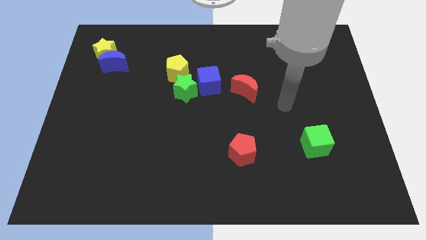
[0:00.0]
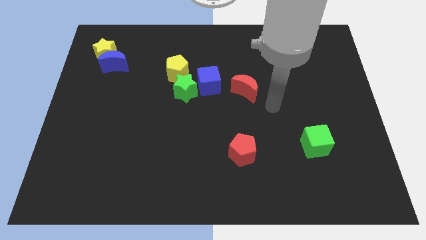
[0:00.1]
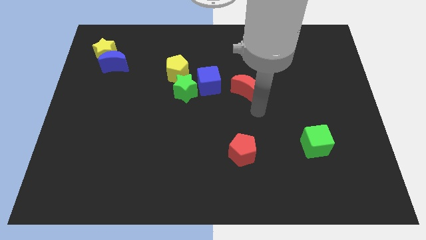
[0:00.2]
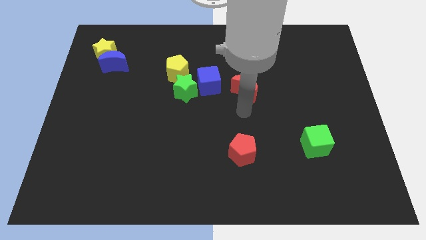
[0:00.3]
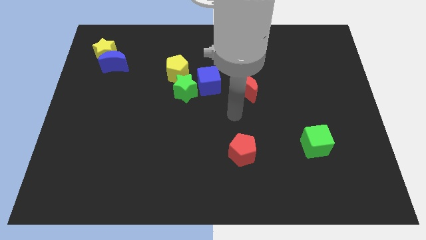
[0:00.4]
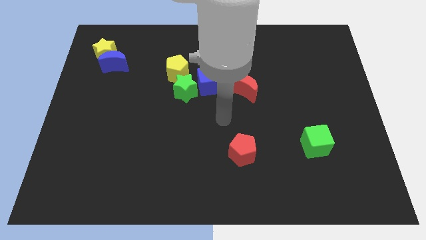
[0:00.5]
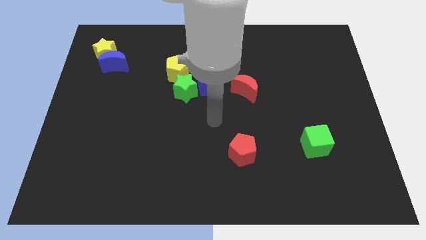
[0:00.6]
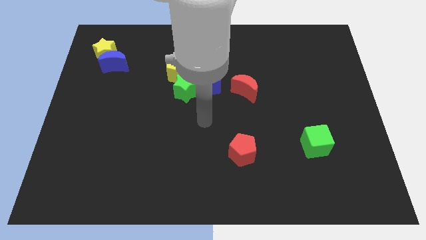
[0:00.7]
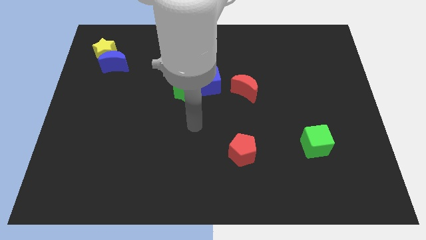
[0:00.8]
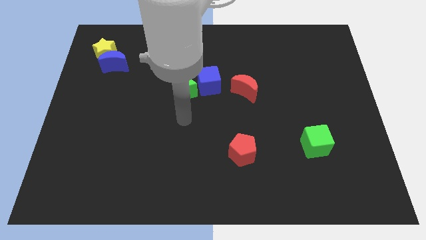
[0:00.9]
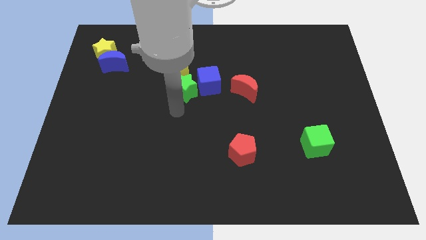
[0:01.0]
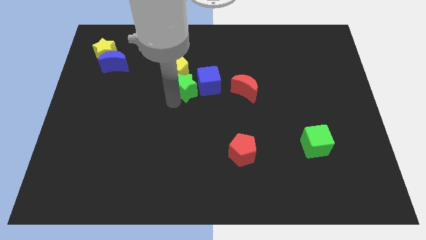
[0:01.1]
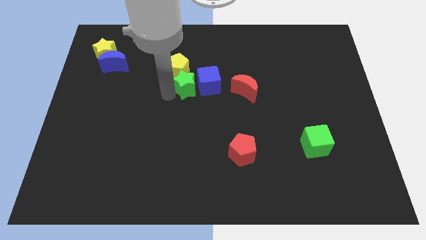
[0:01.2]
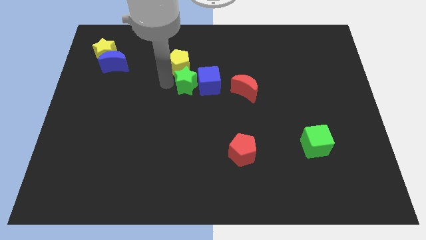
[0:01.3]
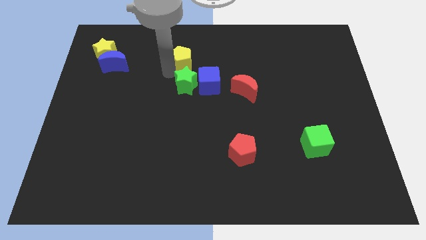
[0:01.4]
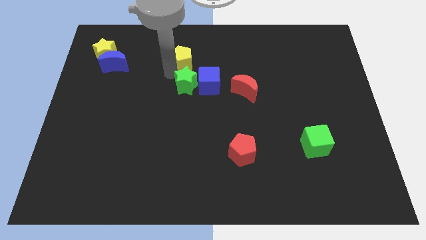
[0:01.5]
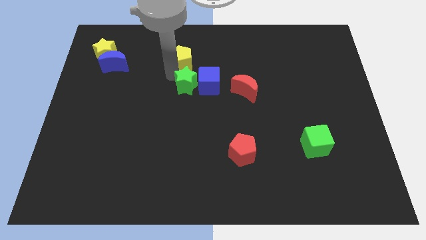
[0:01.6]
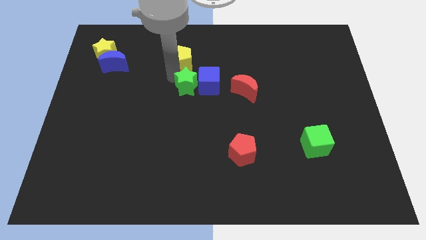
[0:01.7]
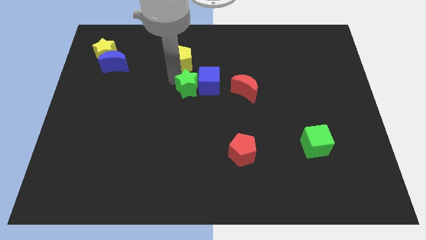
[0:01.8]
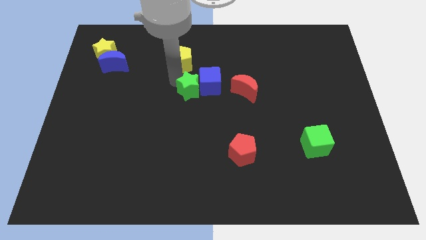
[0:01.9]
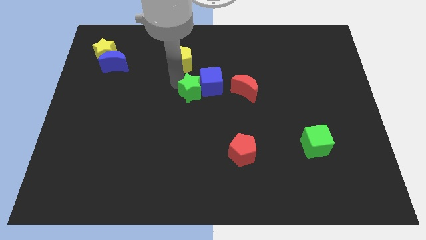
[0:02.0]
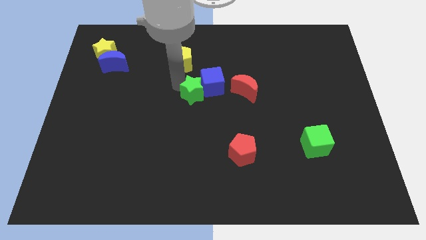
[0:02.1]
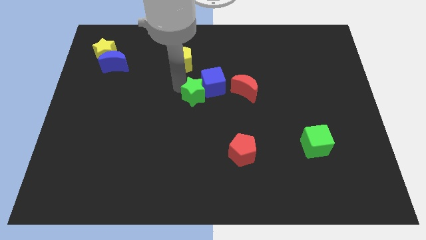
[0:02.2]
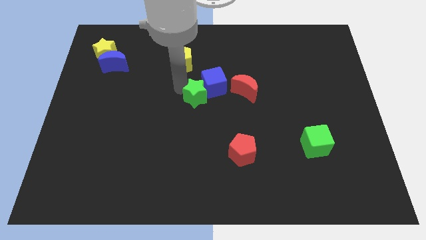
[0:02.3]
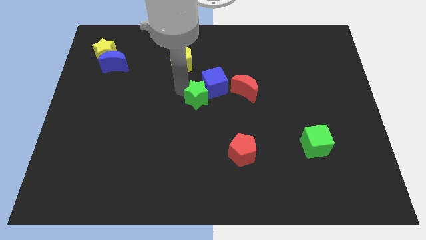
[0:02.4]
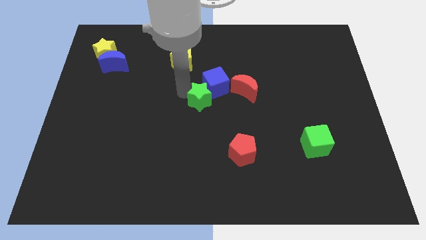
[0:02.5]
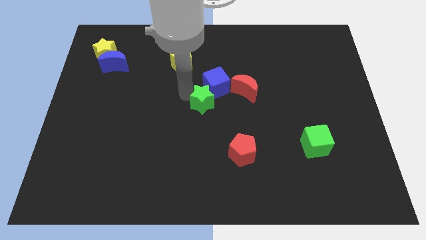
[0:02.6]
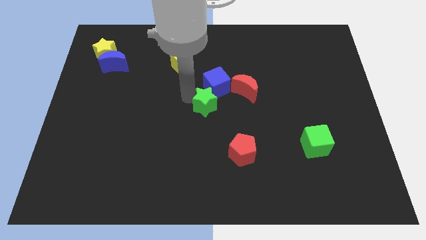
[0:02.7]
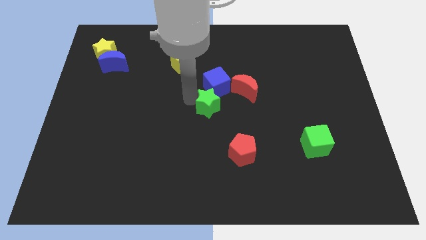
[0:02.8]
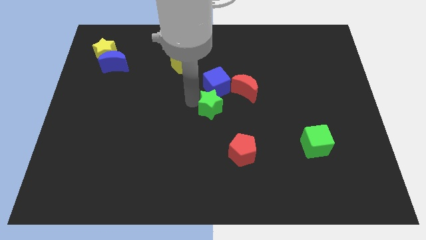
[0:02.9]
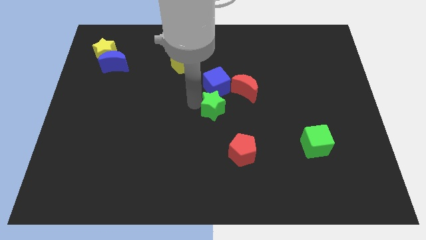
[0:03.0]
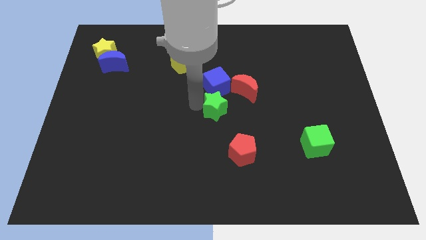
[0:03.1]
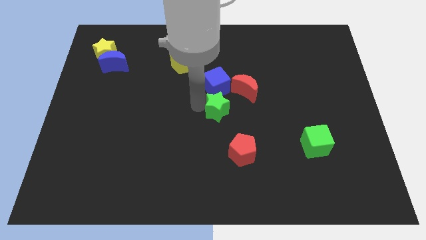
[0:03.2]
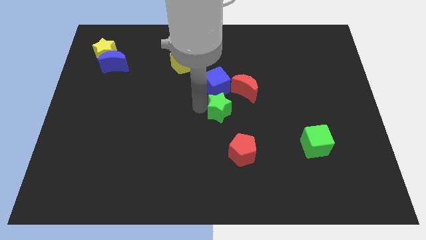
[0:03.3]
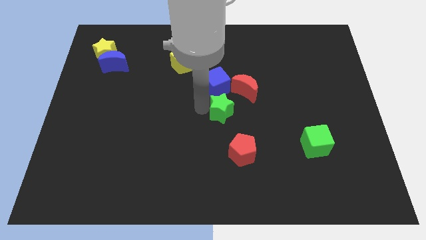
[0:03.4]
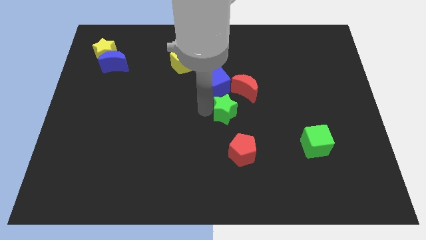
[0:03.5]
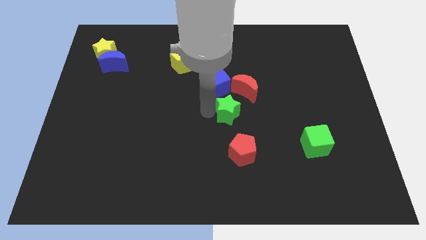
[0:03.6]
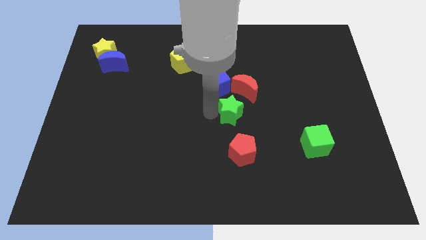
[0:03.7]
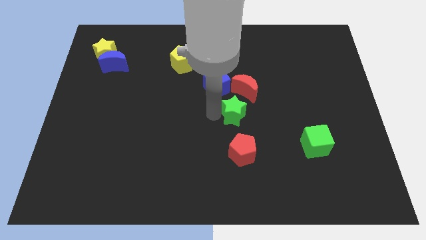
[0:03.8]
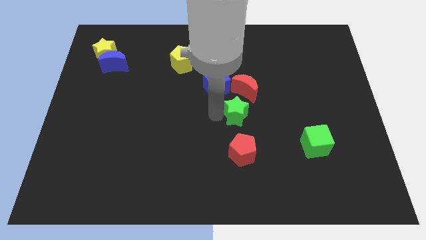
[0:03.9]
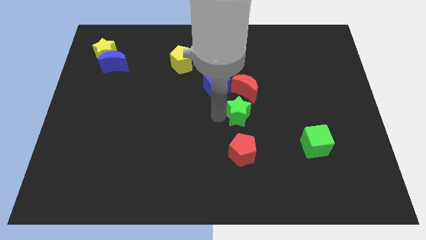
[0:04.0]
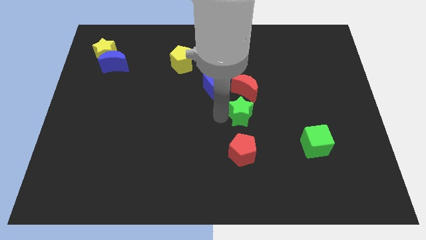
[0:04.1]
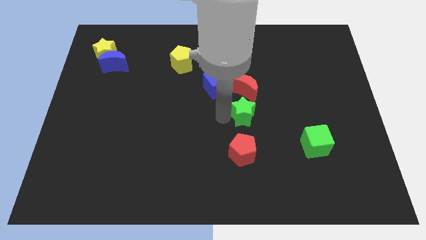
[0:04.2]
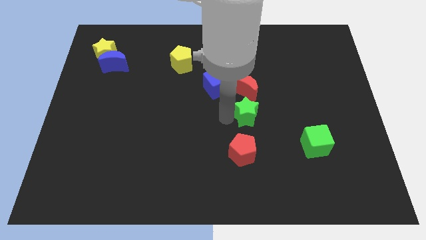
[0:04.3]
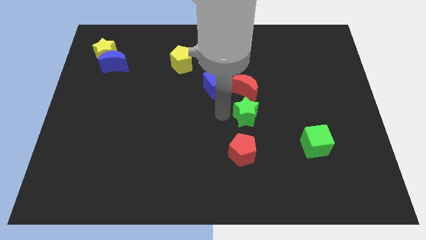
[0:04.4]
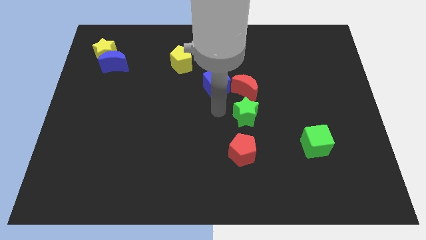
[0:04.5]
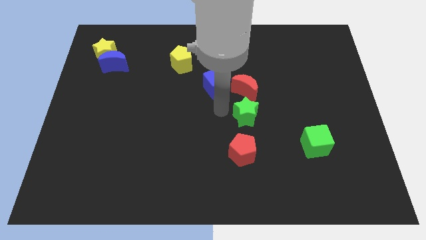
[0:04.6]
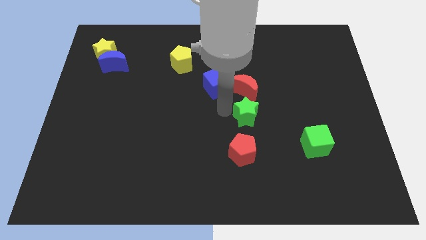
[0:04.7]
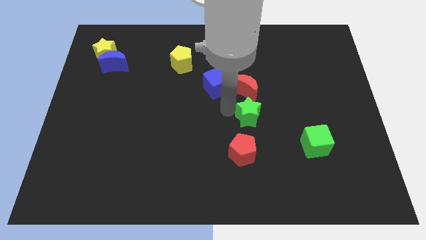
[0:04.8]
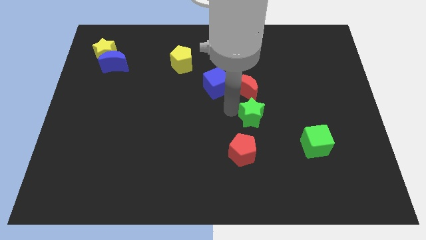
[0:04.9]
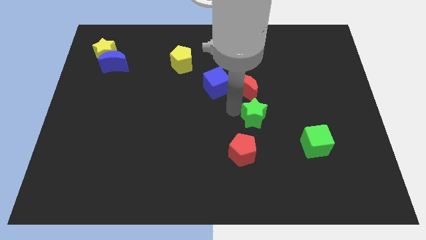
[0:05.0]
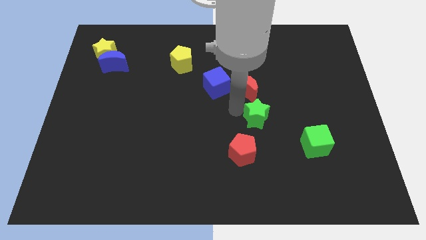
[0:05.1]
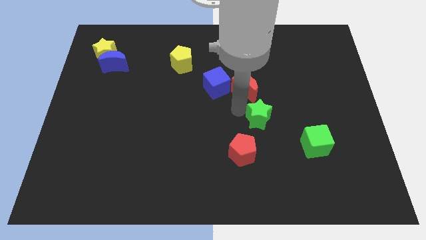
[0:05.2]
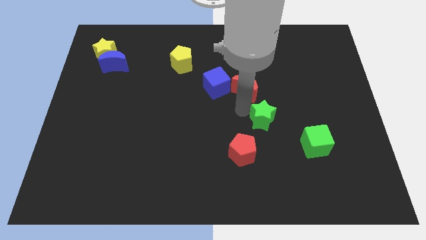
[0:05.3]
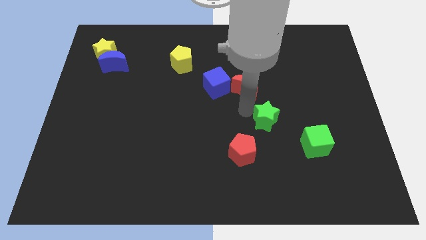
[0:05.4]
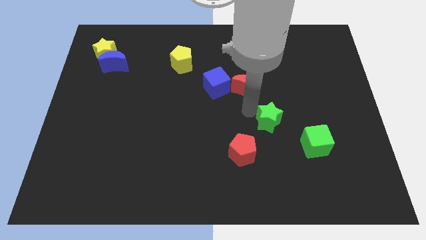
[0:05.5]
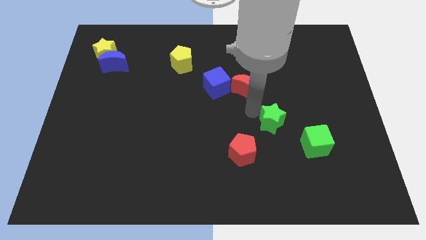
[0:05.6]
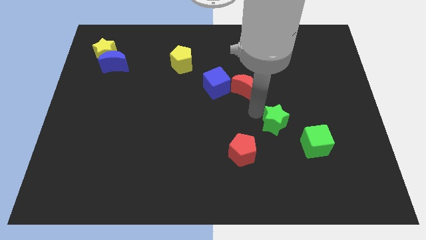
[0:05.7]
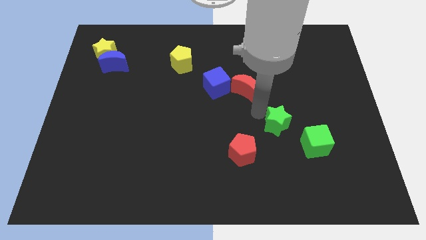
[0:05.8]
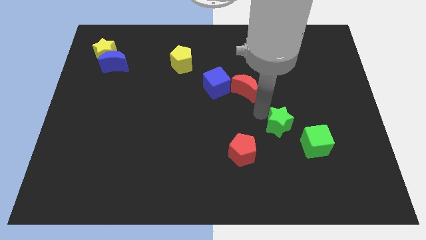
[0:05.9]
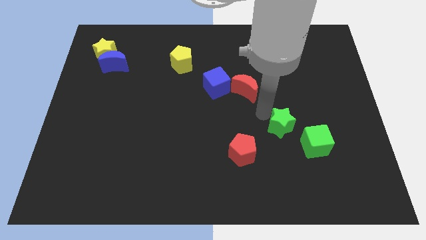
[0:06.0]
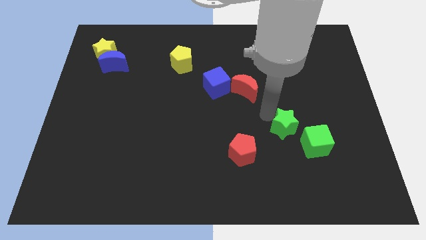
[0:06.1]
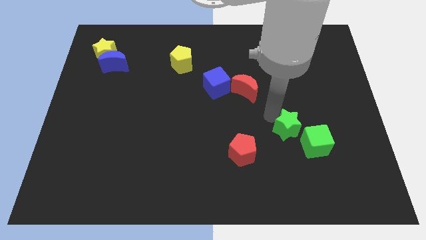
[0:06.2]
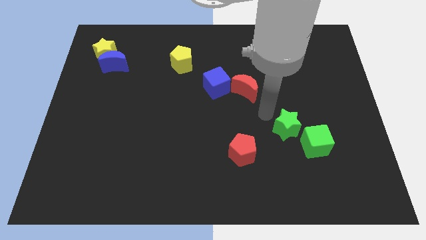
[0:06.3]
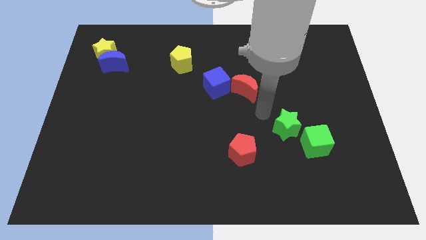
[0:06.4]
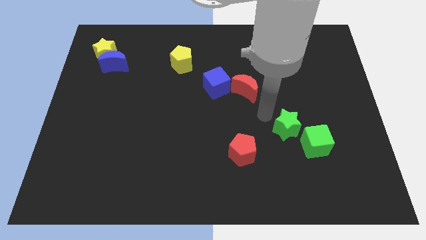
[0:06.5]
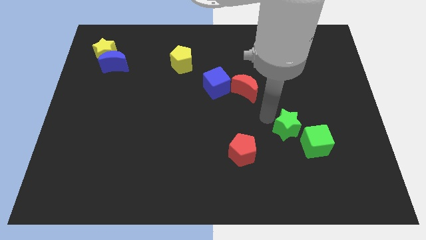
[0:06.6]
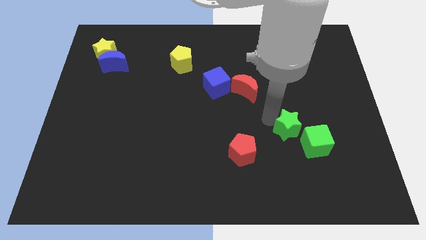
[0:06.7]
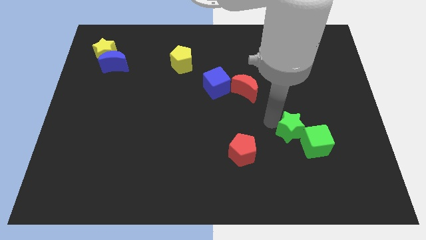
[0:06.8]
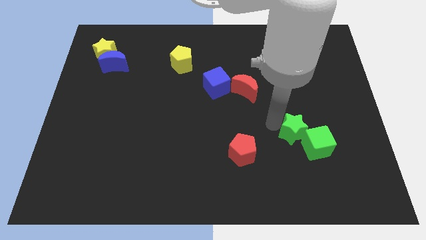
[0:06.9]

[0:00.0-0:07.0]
push the green star close to the green cube

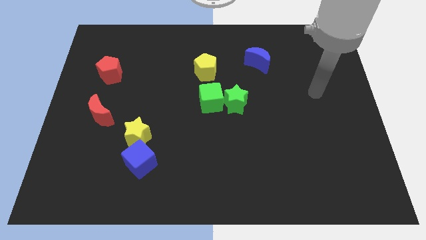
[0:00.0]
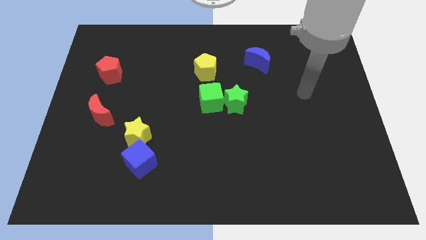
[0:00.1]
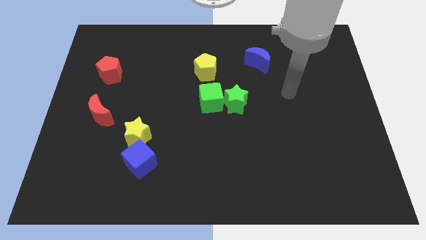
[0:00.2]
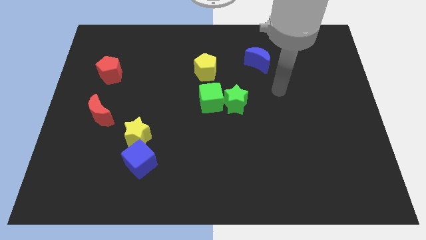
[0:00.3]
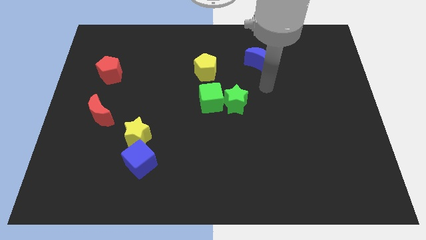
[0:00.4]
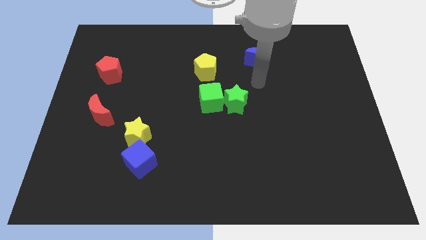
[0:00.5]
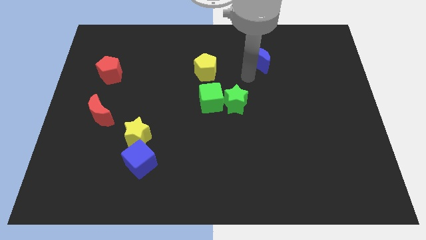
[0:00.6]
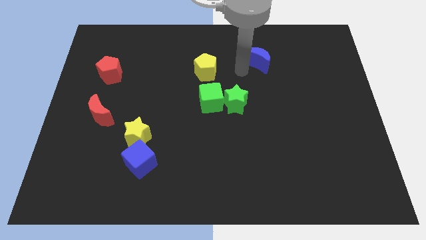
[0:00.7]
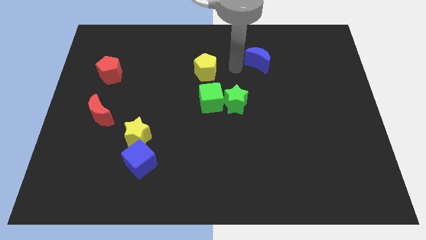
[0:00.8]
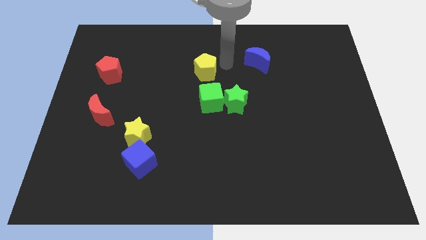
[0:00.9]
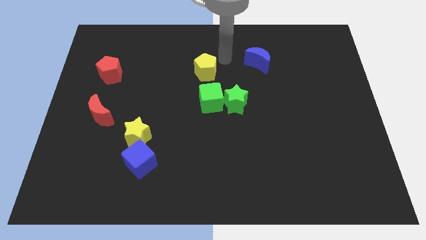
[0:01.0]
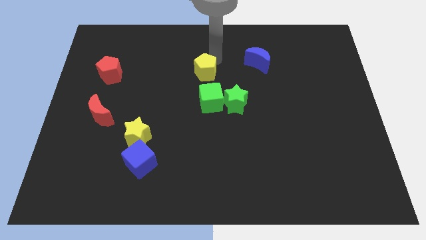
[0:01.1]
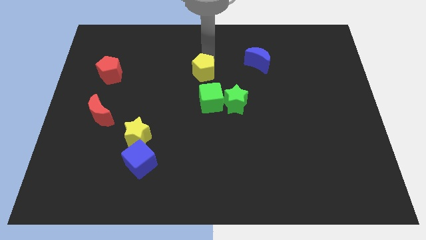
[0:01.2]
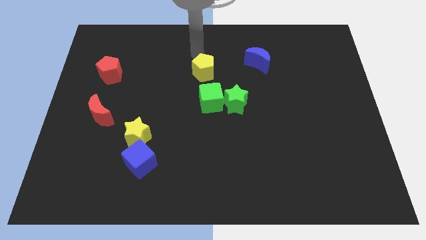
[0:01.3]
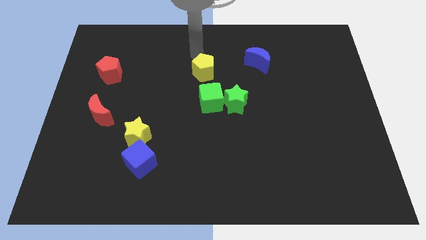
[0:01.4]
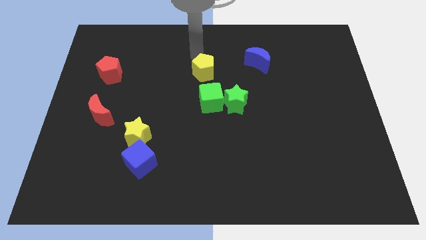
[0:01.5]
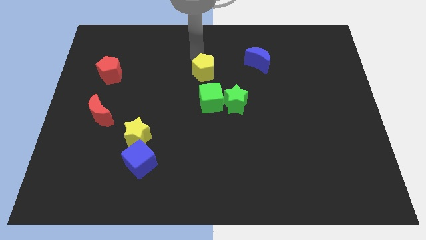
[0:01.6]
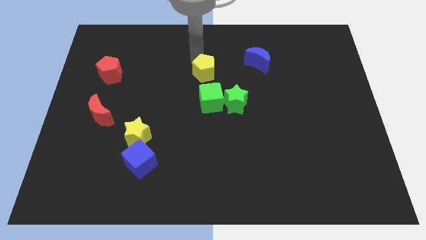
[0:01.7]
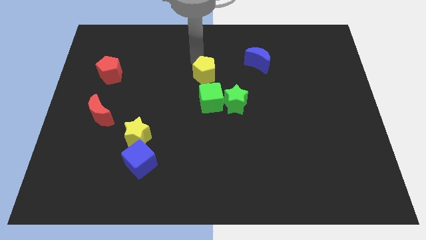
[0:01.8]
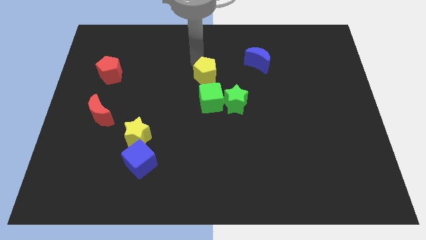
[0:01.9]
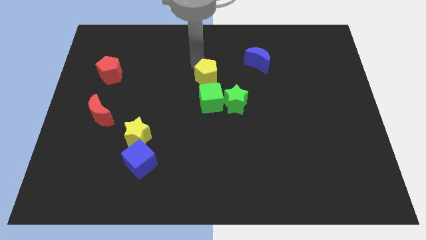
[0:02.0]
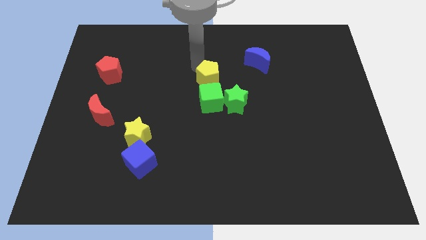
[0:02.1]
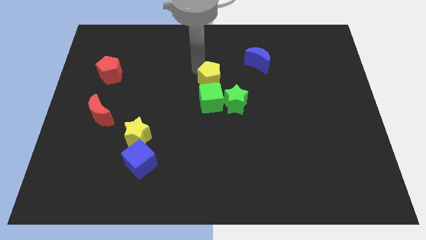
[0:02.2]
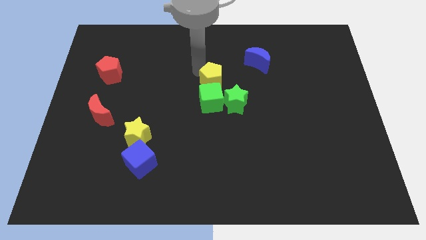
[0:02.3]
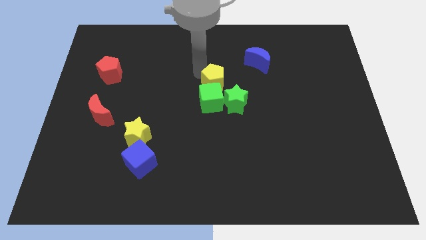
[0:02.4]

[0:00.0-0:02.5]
move the yellow pentagon towards the green cube
